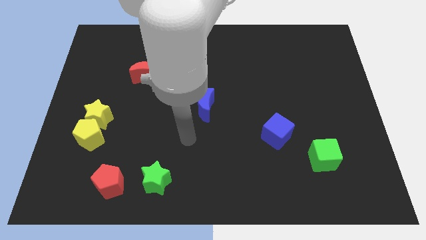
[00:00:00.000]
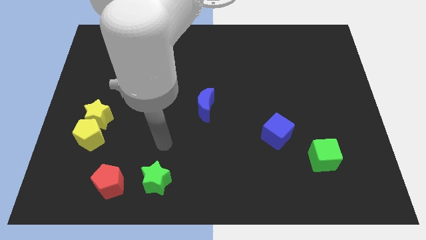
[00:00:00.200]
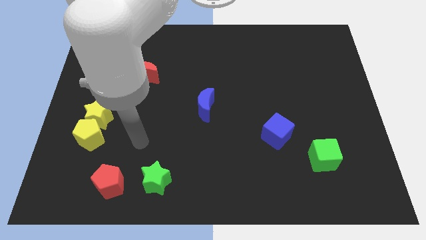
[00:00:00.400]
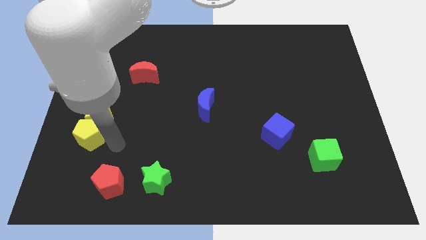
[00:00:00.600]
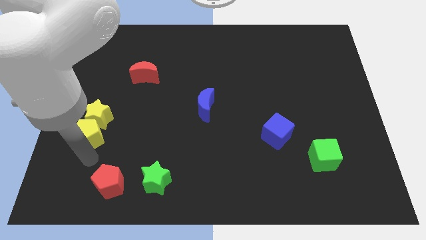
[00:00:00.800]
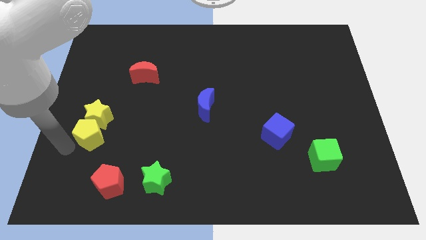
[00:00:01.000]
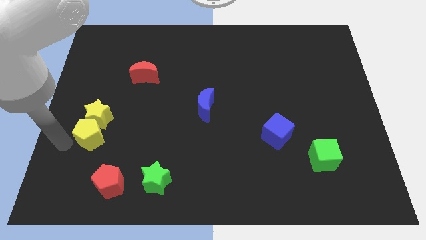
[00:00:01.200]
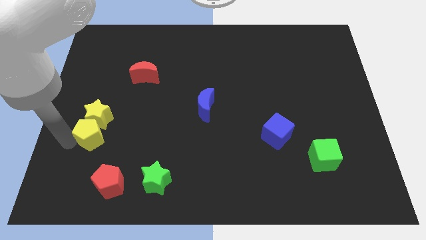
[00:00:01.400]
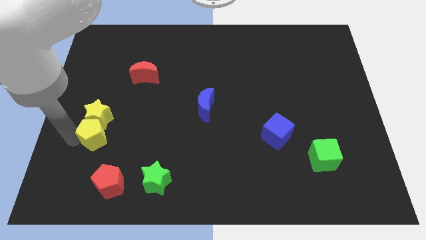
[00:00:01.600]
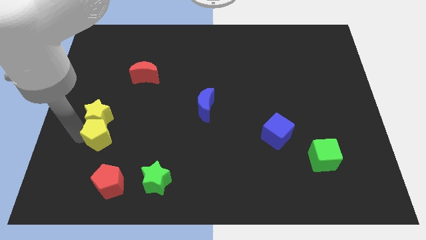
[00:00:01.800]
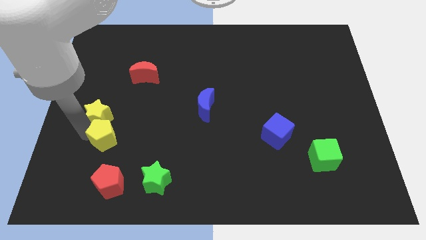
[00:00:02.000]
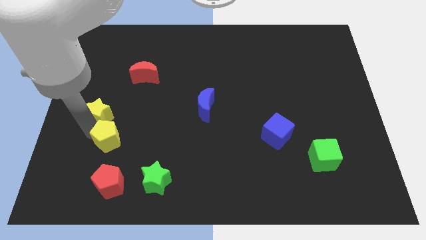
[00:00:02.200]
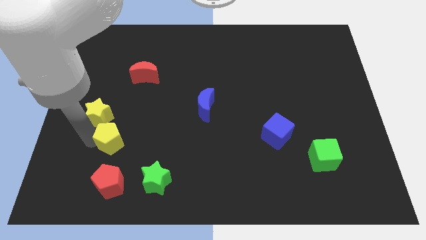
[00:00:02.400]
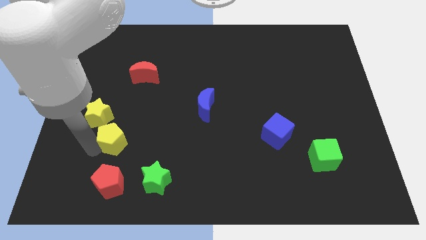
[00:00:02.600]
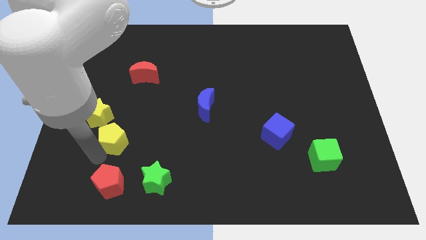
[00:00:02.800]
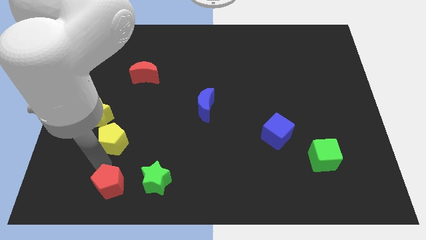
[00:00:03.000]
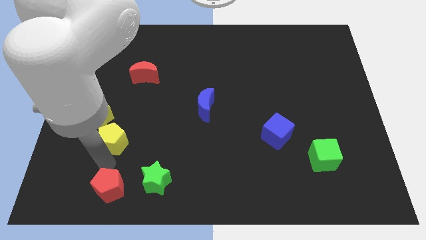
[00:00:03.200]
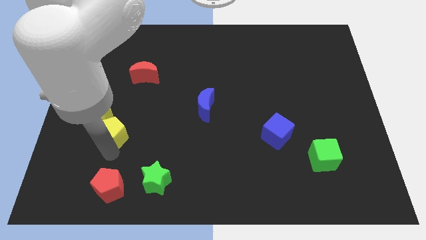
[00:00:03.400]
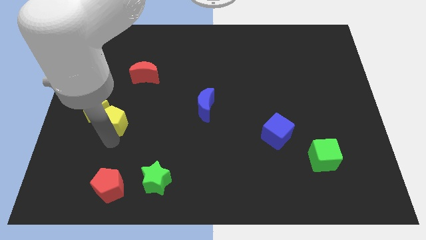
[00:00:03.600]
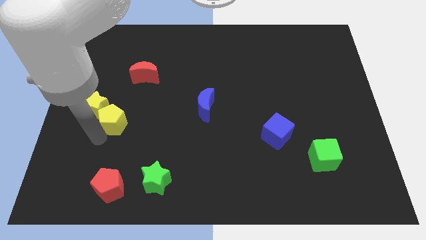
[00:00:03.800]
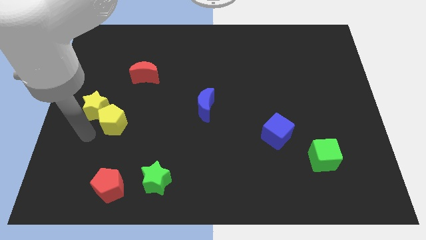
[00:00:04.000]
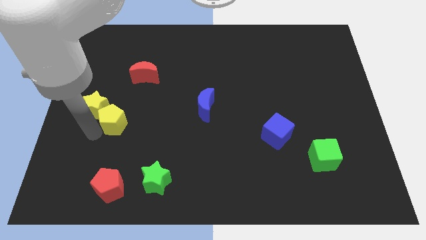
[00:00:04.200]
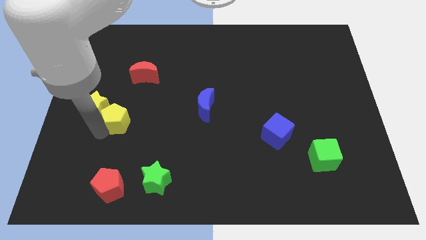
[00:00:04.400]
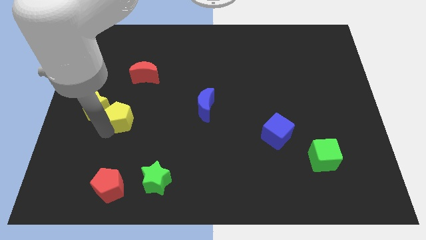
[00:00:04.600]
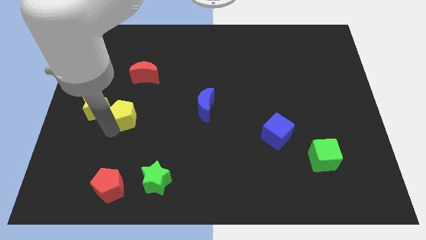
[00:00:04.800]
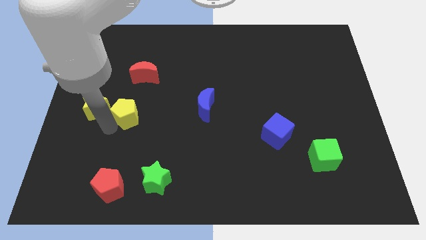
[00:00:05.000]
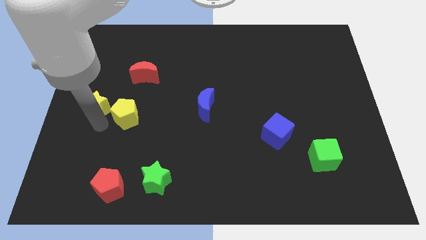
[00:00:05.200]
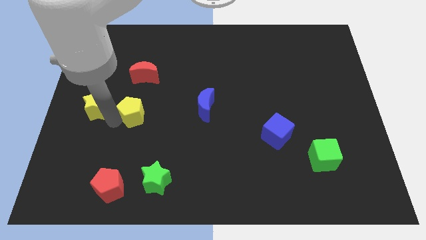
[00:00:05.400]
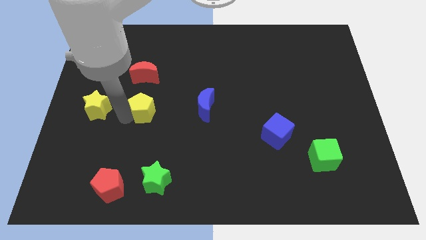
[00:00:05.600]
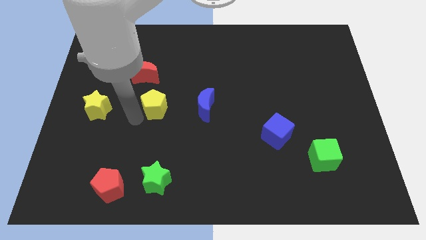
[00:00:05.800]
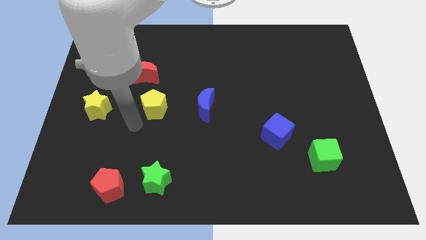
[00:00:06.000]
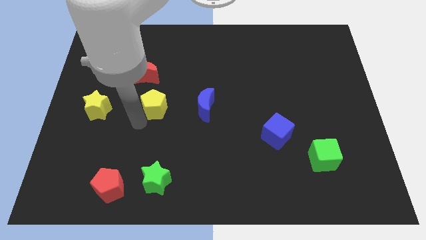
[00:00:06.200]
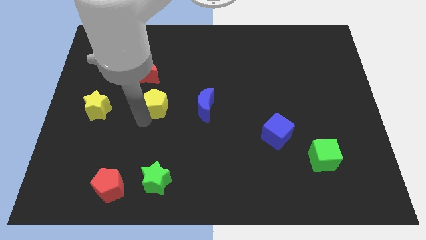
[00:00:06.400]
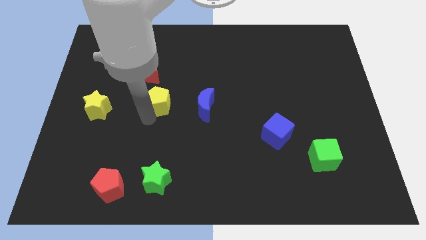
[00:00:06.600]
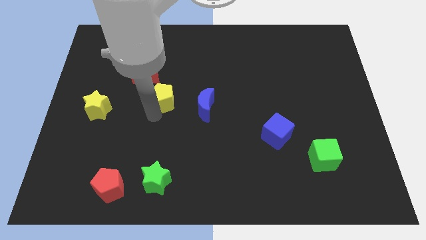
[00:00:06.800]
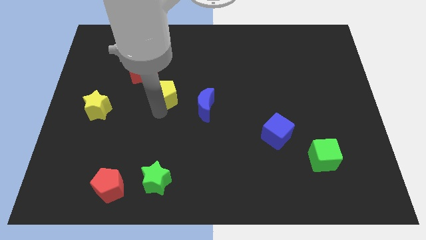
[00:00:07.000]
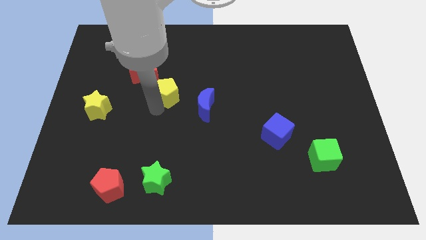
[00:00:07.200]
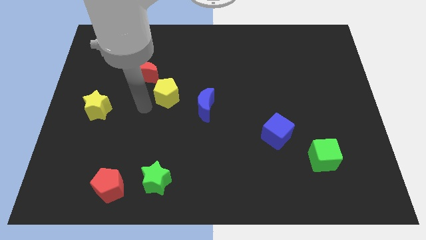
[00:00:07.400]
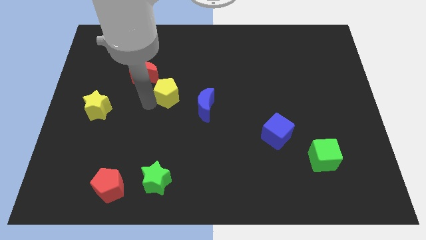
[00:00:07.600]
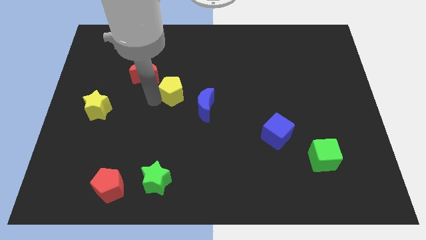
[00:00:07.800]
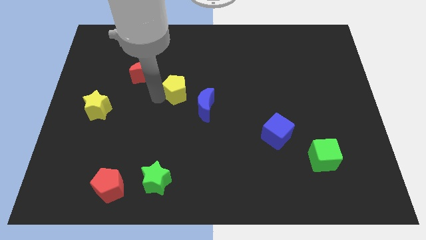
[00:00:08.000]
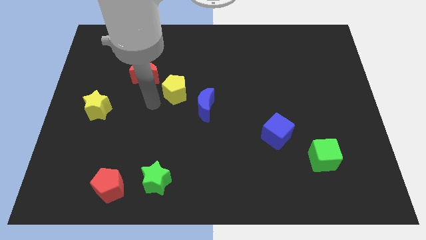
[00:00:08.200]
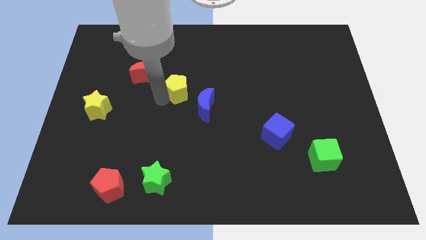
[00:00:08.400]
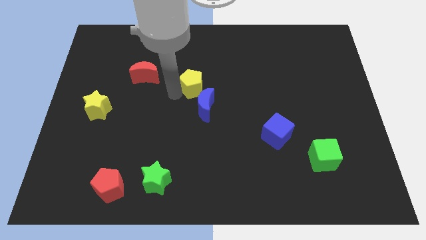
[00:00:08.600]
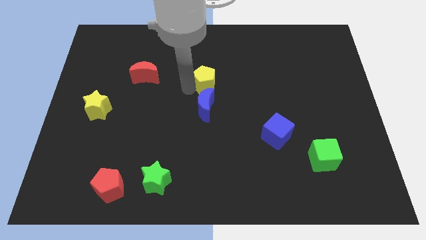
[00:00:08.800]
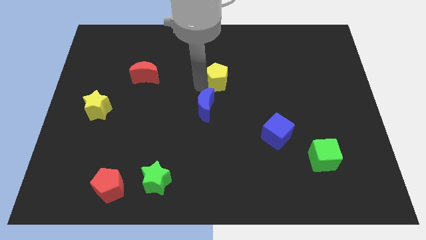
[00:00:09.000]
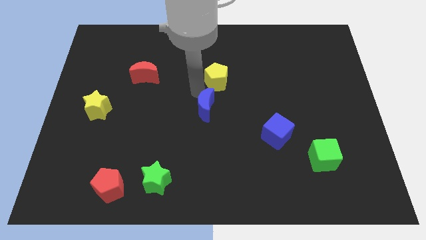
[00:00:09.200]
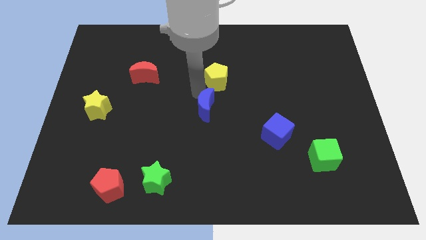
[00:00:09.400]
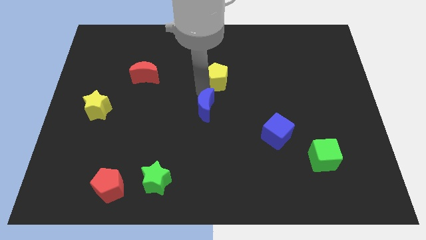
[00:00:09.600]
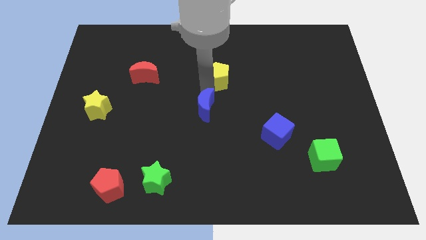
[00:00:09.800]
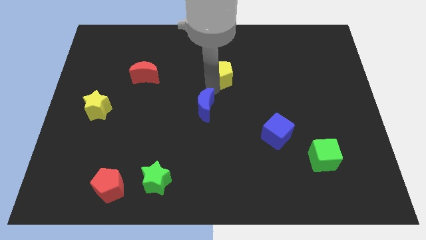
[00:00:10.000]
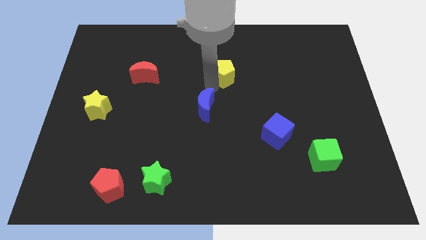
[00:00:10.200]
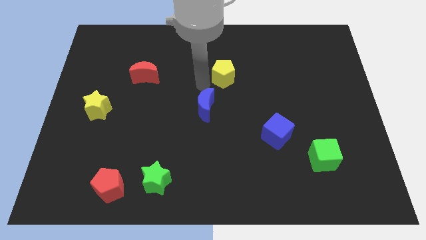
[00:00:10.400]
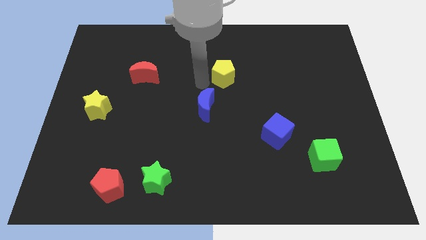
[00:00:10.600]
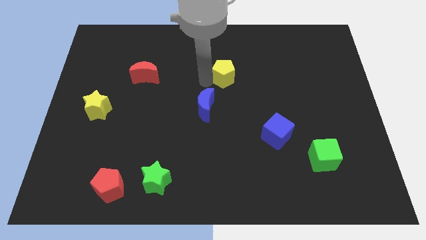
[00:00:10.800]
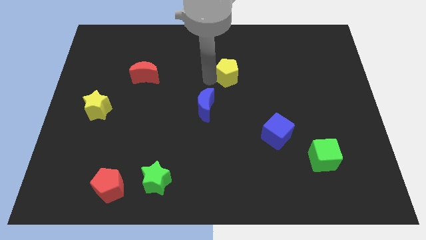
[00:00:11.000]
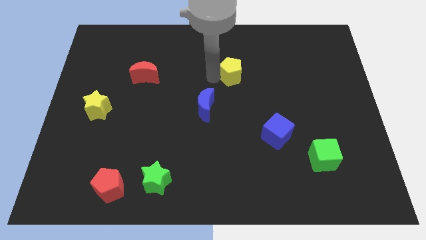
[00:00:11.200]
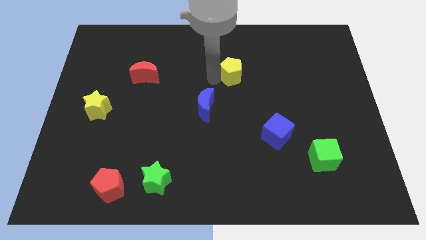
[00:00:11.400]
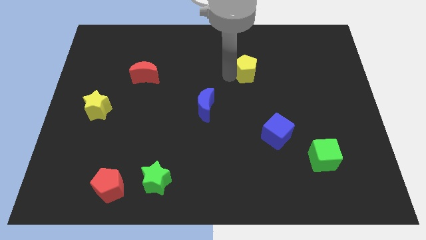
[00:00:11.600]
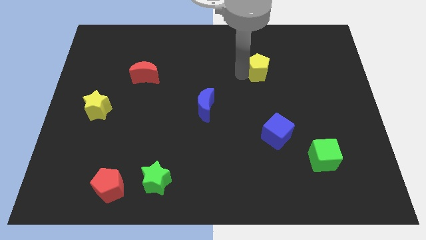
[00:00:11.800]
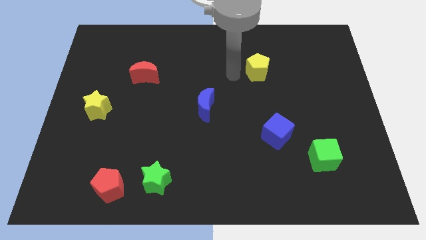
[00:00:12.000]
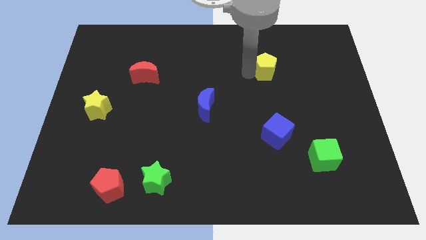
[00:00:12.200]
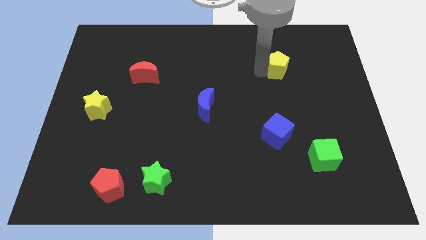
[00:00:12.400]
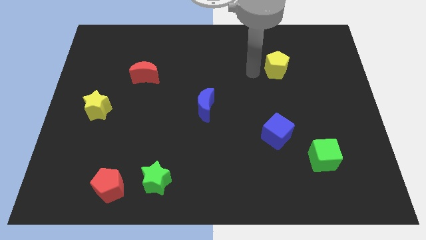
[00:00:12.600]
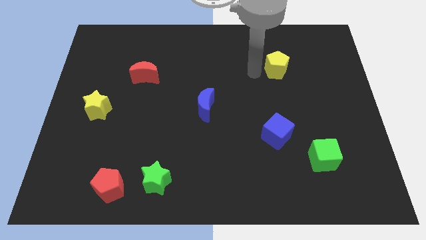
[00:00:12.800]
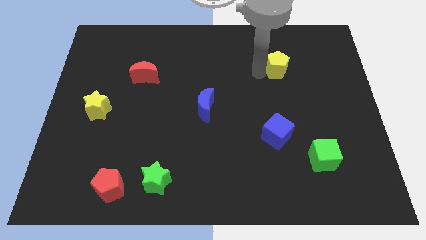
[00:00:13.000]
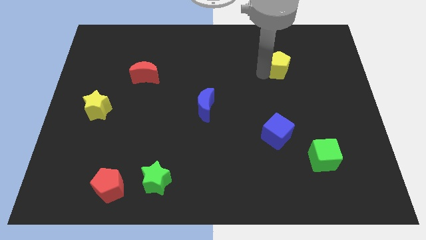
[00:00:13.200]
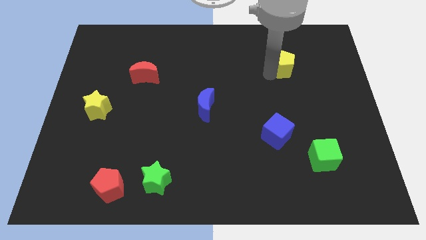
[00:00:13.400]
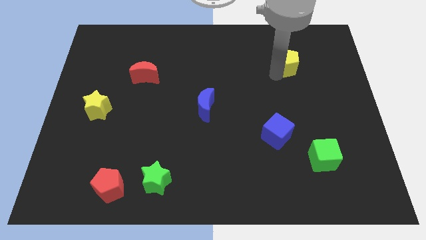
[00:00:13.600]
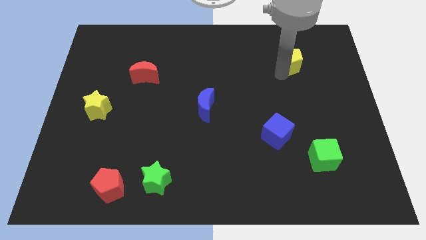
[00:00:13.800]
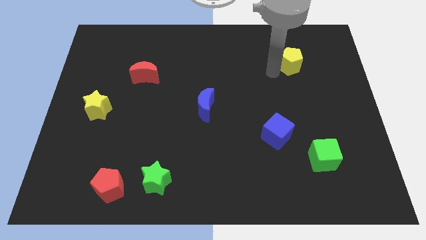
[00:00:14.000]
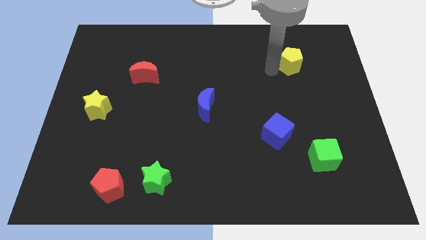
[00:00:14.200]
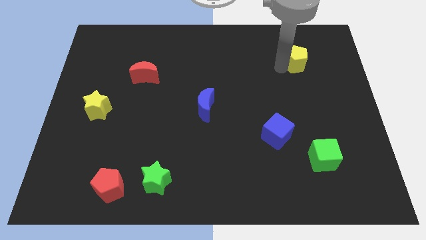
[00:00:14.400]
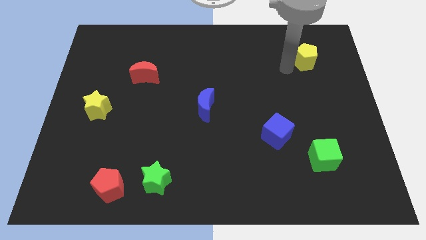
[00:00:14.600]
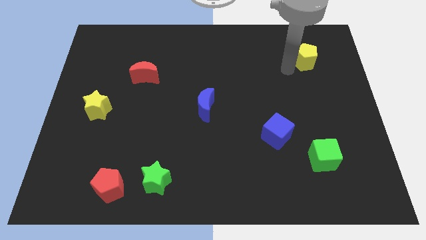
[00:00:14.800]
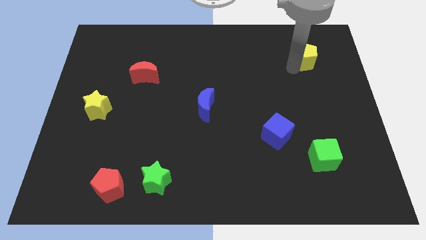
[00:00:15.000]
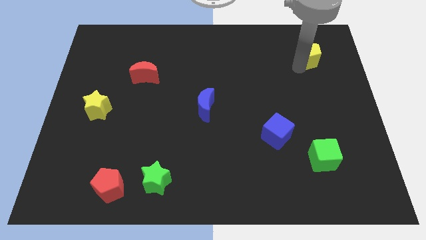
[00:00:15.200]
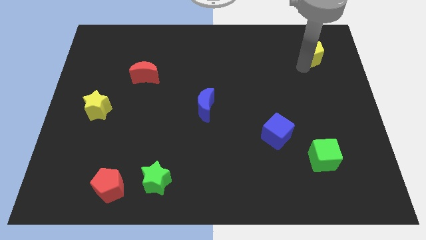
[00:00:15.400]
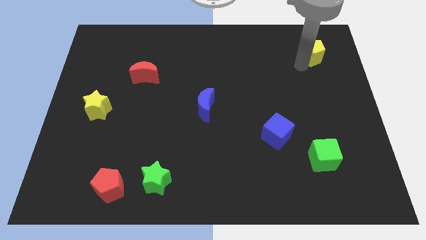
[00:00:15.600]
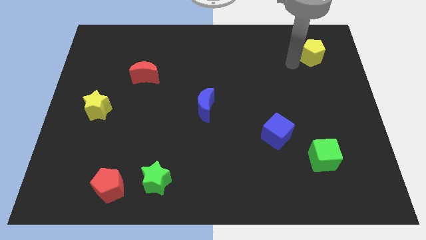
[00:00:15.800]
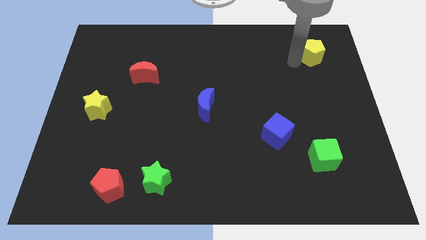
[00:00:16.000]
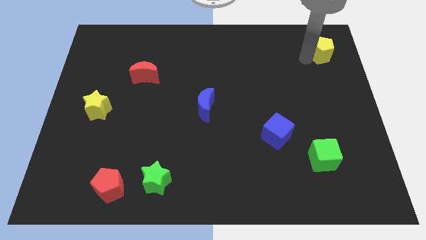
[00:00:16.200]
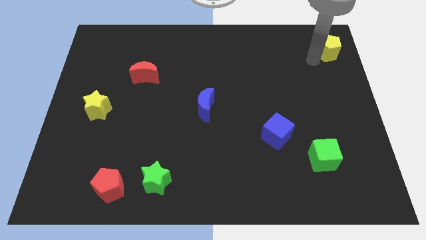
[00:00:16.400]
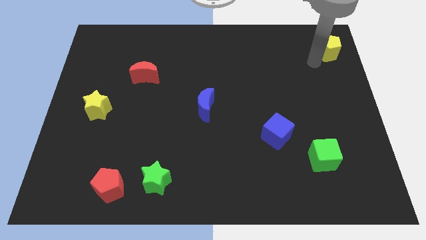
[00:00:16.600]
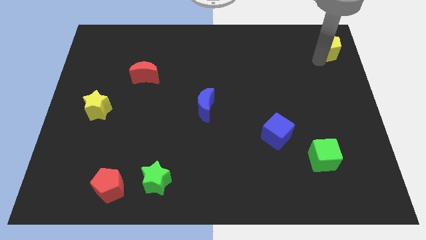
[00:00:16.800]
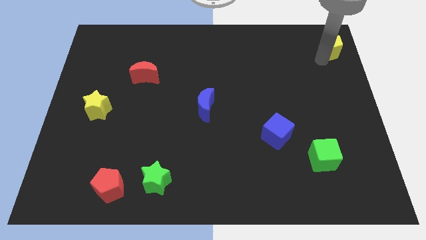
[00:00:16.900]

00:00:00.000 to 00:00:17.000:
push the yellow pentagon to the top right
